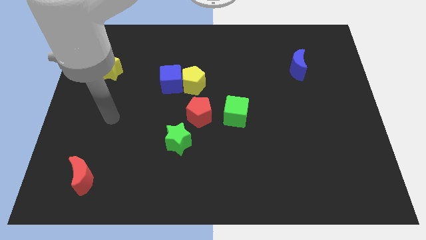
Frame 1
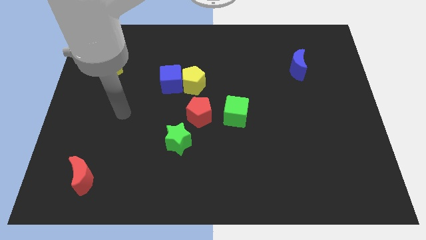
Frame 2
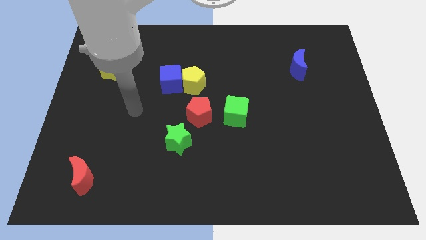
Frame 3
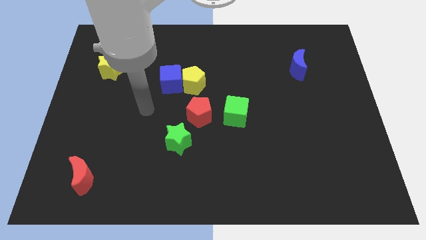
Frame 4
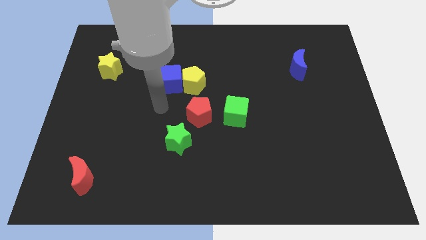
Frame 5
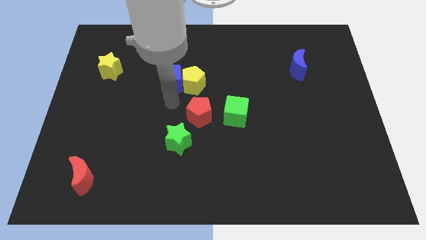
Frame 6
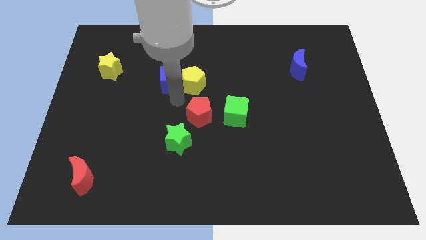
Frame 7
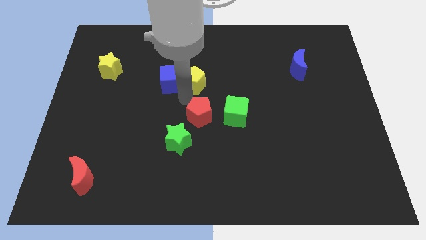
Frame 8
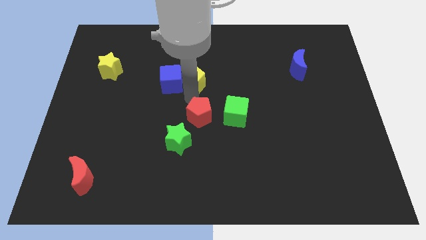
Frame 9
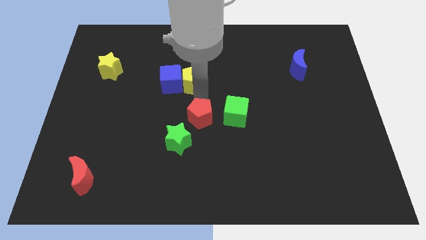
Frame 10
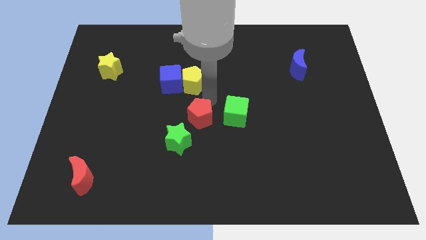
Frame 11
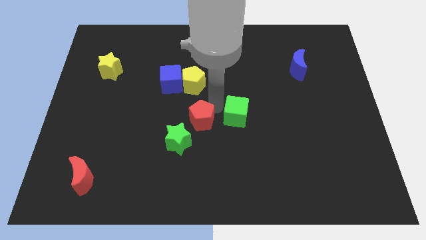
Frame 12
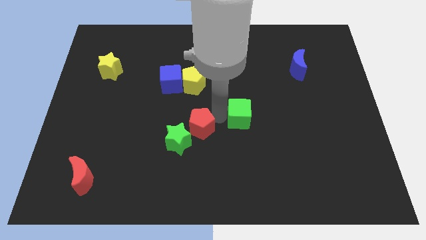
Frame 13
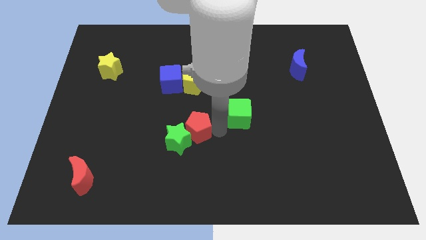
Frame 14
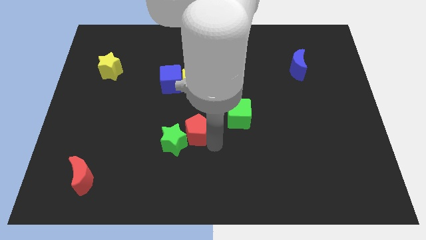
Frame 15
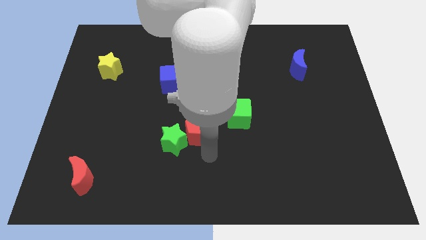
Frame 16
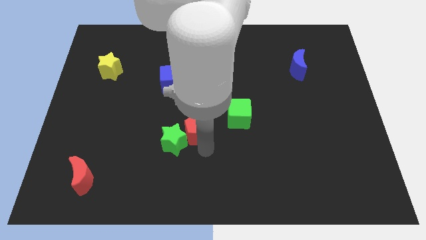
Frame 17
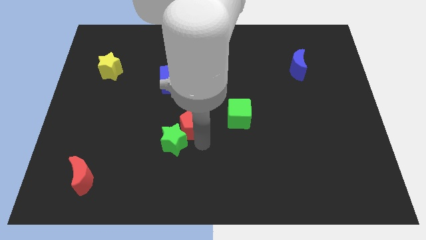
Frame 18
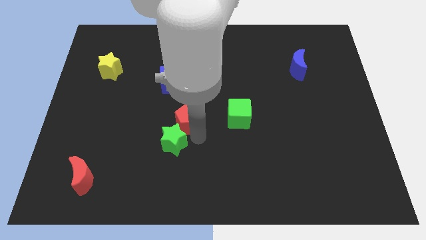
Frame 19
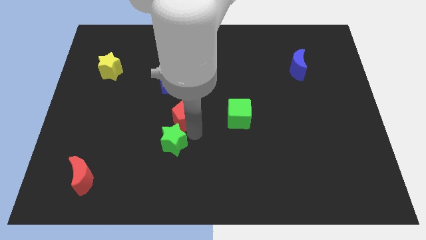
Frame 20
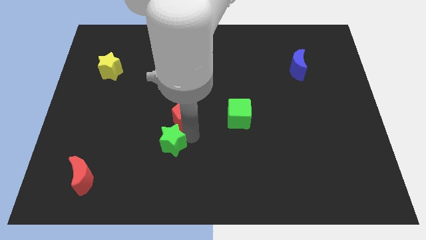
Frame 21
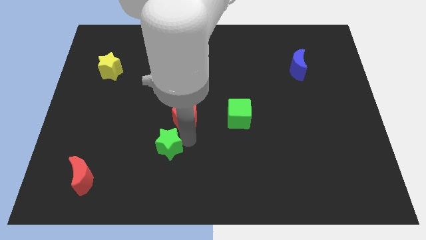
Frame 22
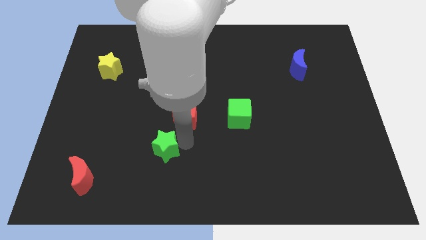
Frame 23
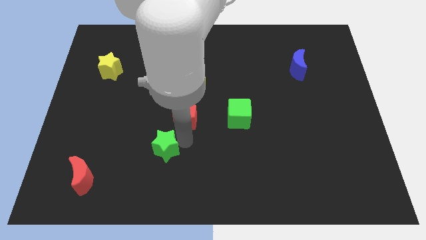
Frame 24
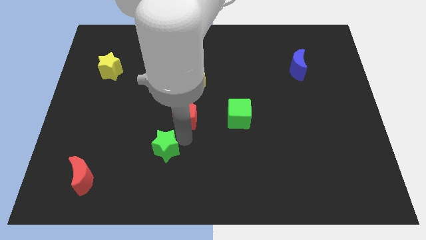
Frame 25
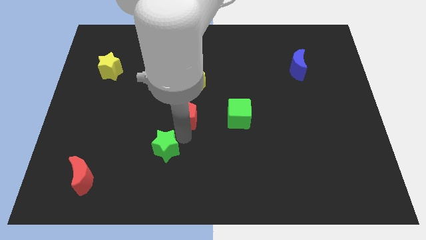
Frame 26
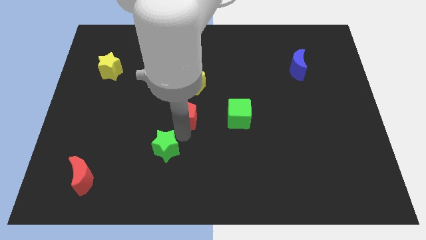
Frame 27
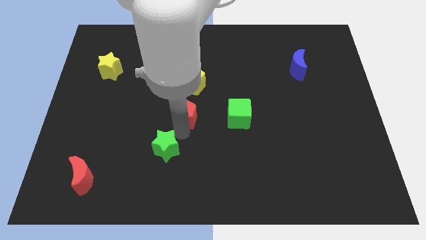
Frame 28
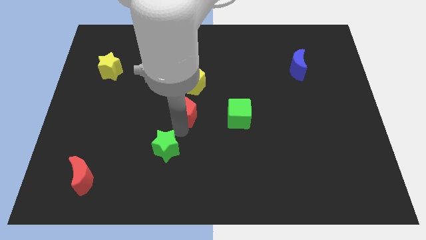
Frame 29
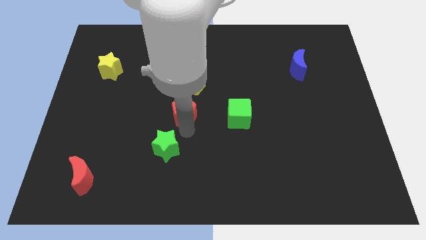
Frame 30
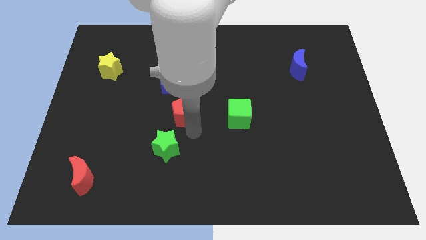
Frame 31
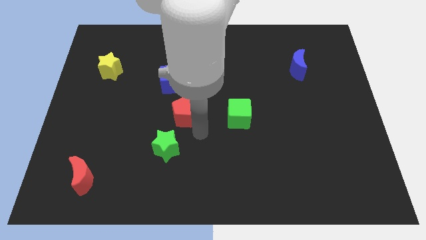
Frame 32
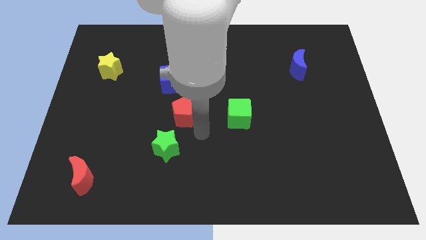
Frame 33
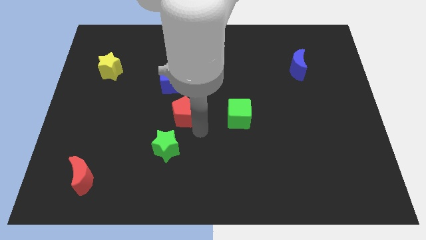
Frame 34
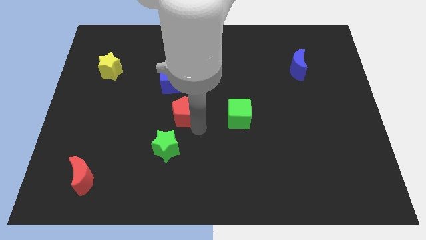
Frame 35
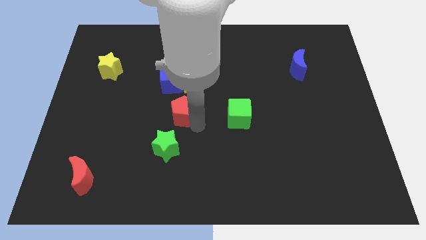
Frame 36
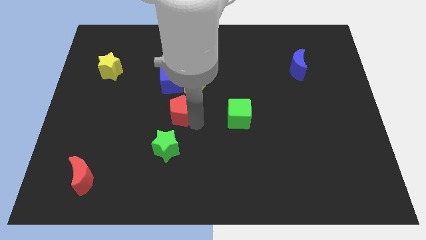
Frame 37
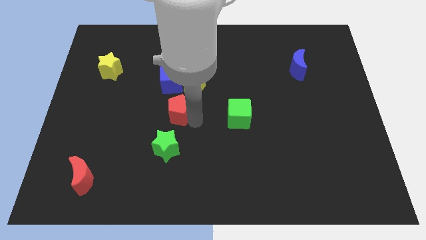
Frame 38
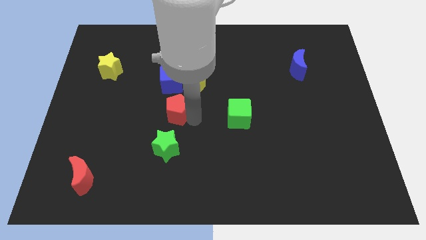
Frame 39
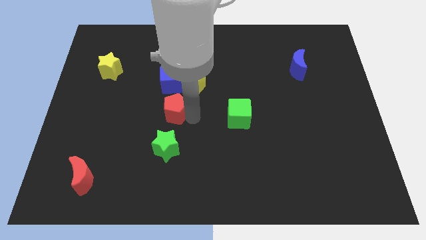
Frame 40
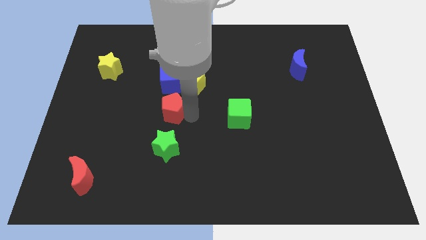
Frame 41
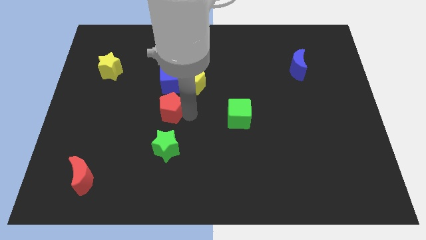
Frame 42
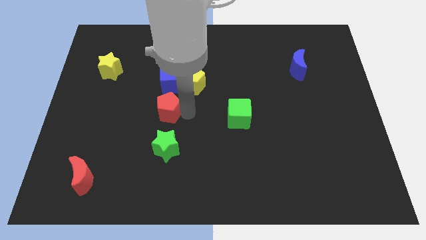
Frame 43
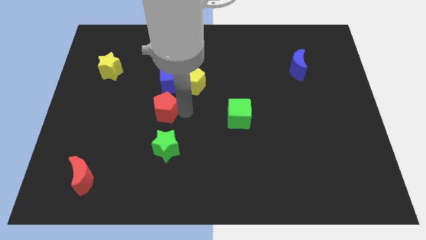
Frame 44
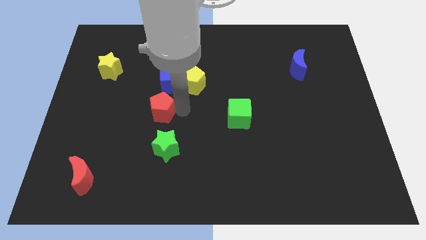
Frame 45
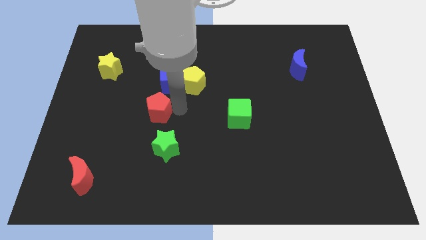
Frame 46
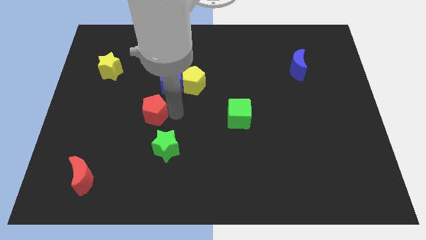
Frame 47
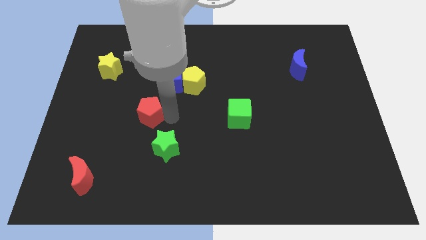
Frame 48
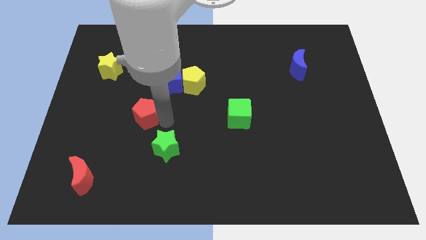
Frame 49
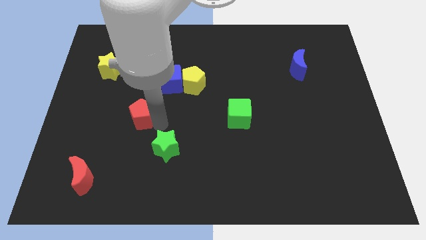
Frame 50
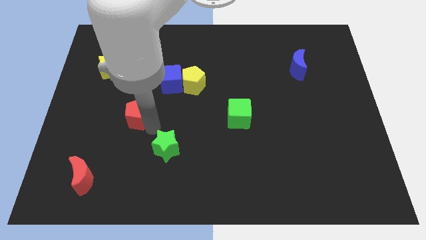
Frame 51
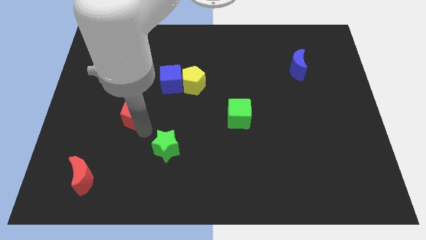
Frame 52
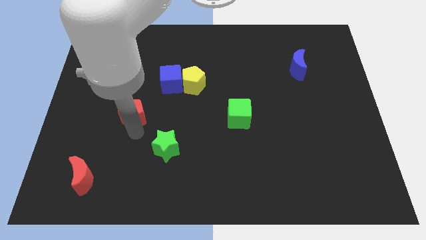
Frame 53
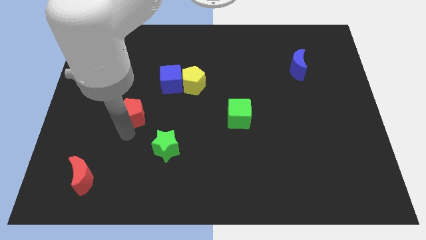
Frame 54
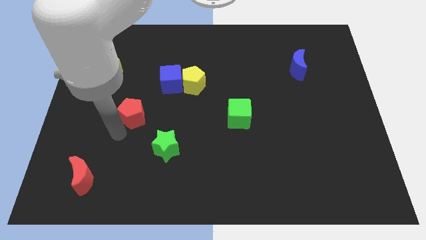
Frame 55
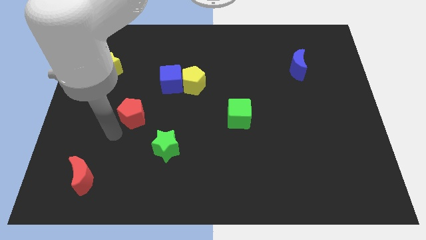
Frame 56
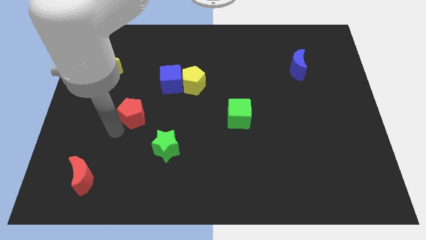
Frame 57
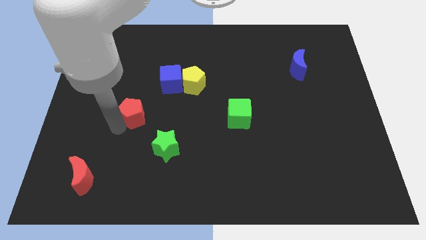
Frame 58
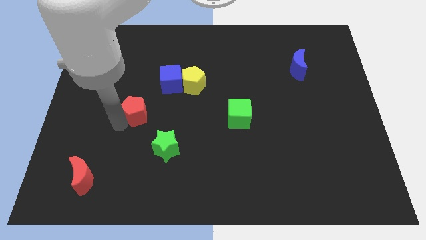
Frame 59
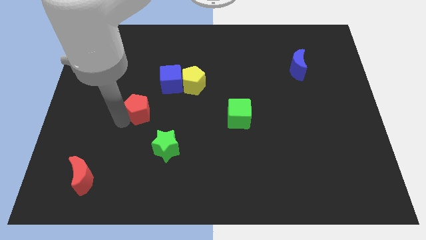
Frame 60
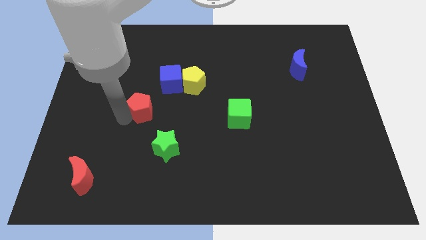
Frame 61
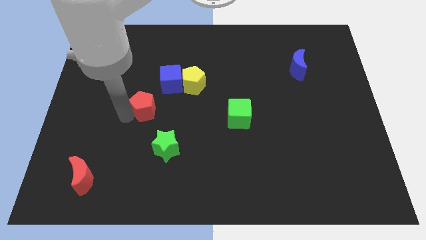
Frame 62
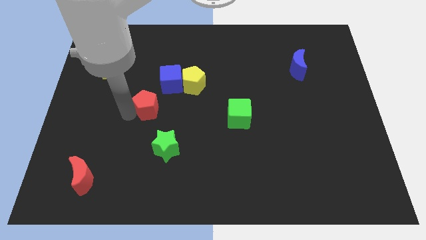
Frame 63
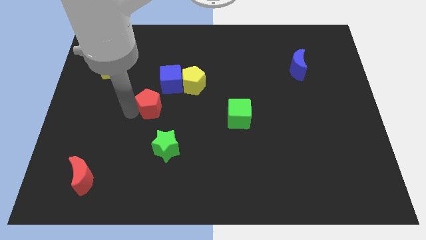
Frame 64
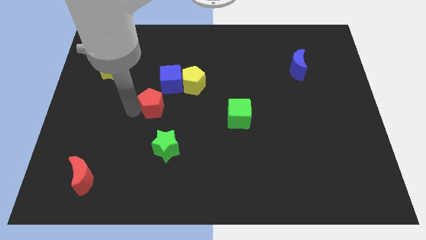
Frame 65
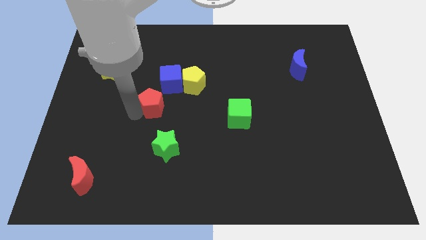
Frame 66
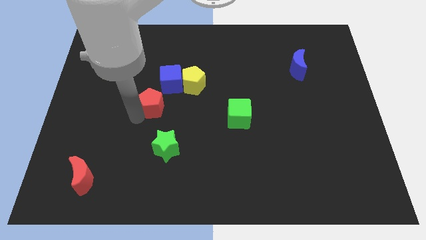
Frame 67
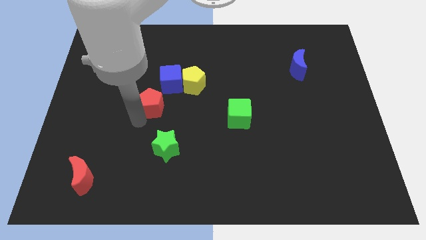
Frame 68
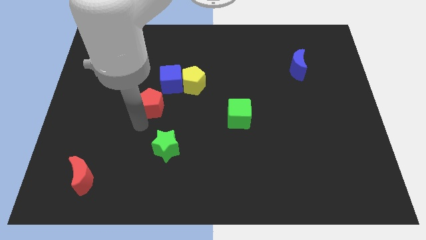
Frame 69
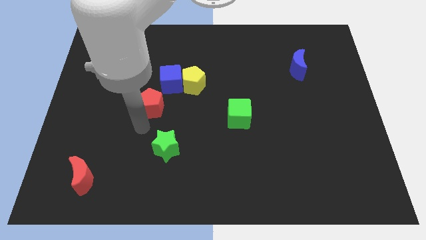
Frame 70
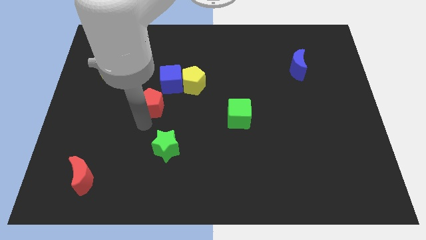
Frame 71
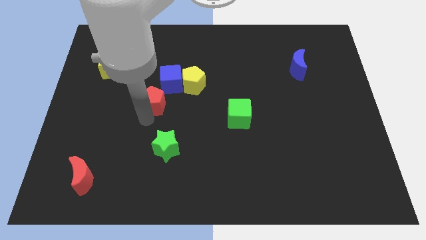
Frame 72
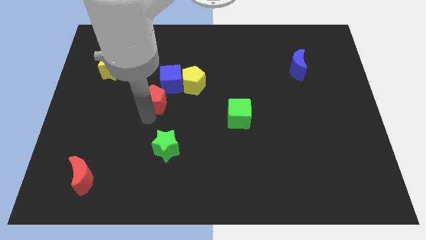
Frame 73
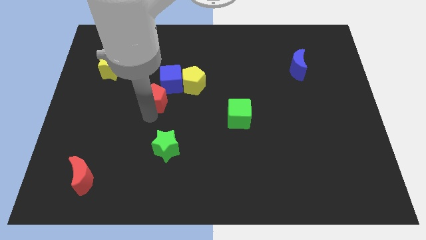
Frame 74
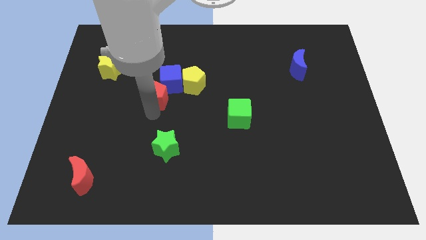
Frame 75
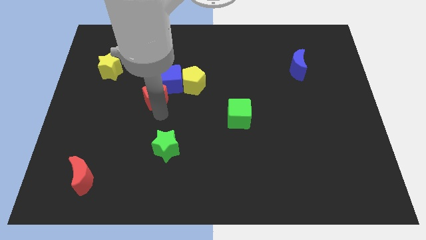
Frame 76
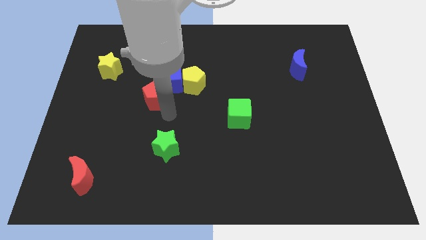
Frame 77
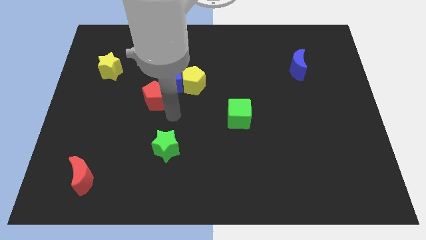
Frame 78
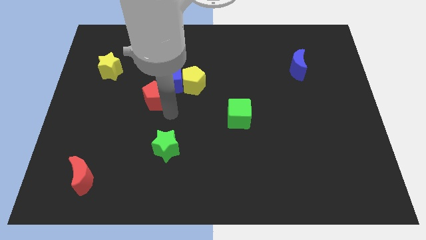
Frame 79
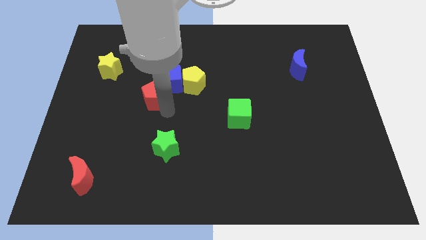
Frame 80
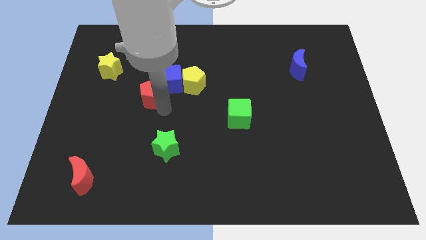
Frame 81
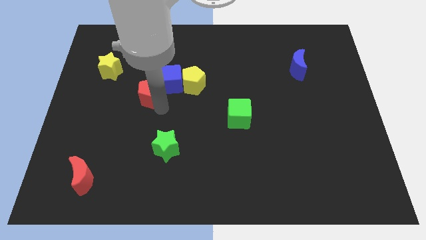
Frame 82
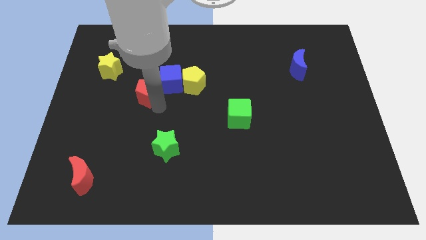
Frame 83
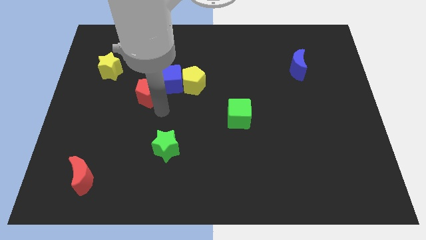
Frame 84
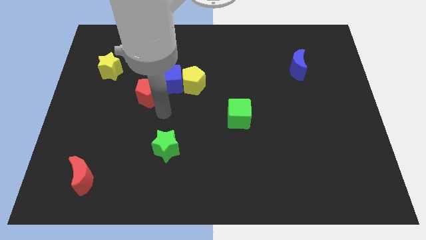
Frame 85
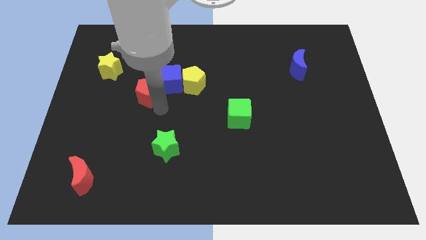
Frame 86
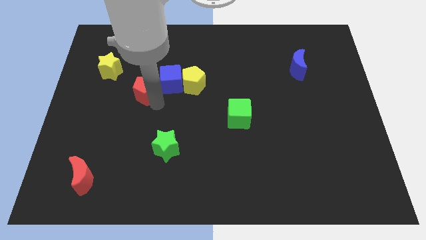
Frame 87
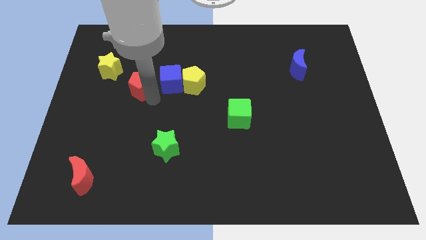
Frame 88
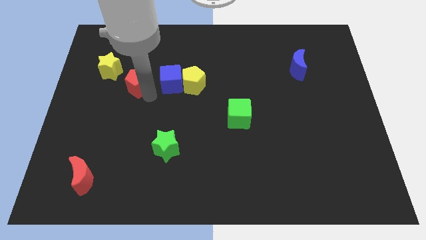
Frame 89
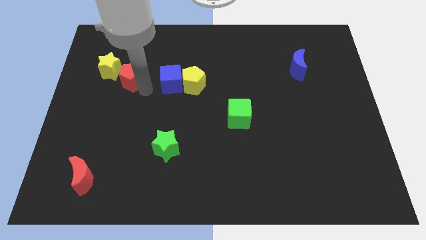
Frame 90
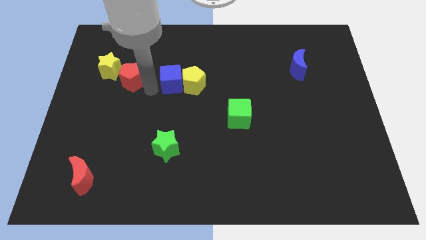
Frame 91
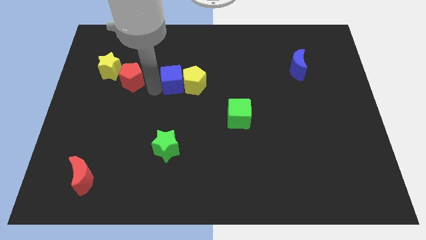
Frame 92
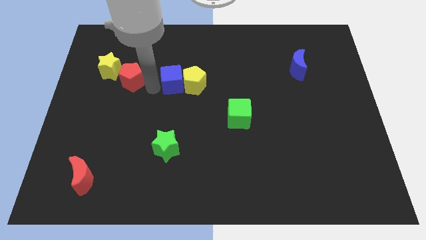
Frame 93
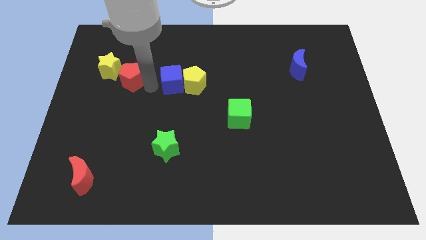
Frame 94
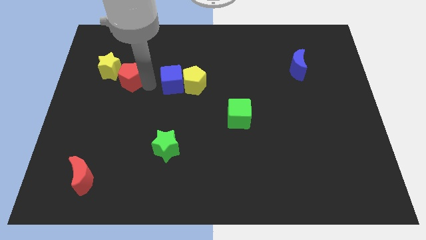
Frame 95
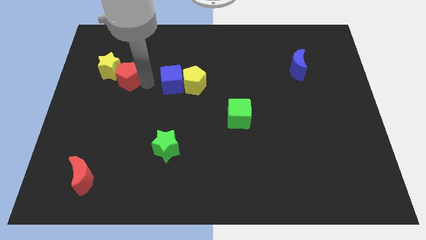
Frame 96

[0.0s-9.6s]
slide the red pentagon next to the yellow star
